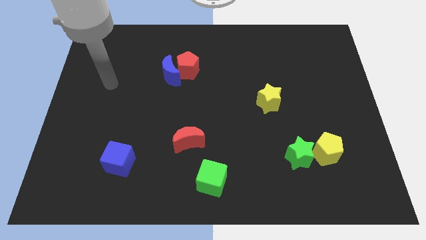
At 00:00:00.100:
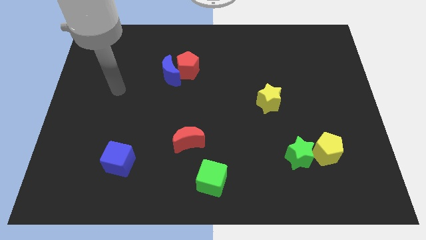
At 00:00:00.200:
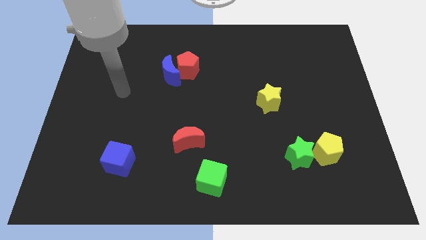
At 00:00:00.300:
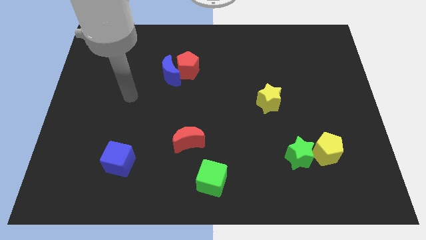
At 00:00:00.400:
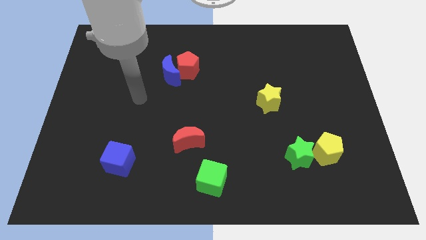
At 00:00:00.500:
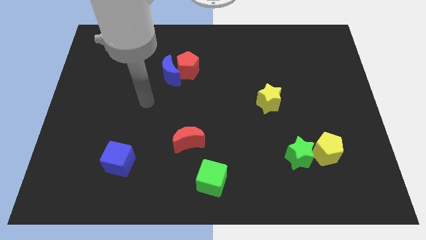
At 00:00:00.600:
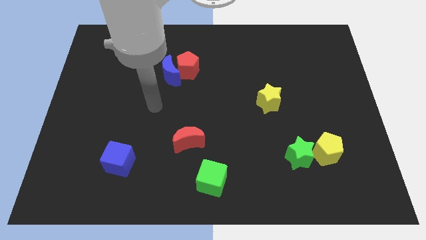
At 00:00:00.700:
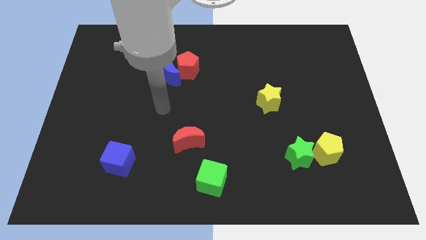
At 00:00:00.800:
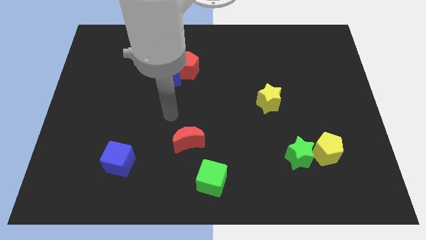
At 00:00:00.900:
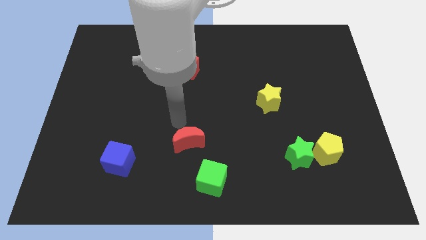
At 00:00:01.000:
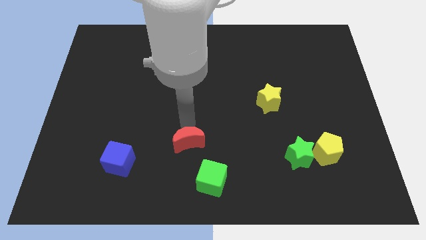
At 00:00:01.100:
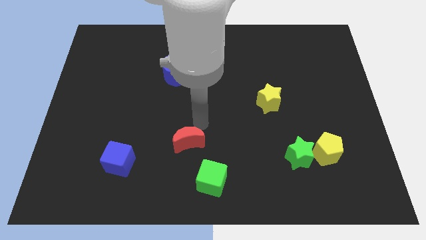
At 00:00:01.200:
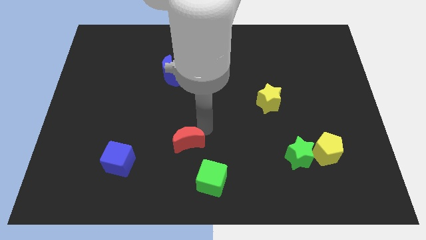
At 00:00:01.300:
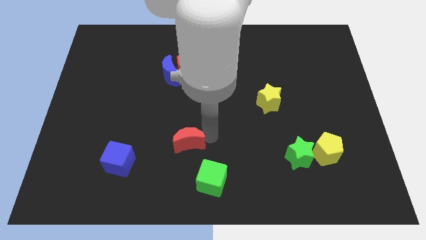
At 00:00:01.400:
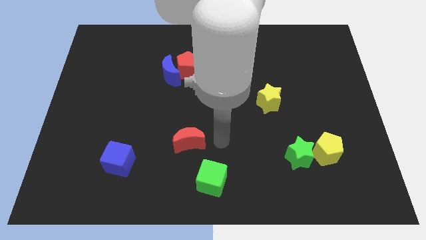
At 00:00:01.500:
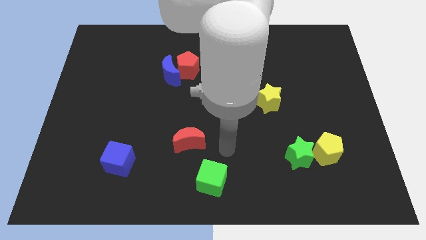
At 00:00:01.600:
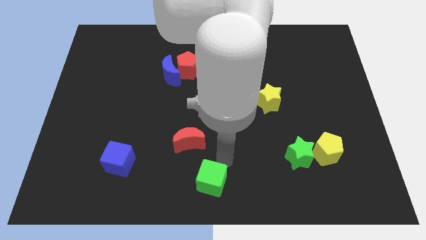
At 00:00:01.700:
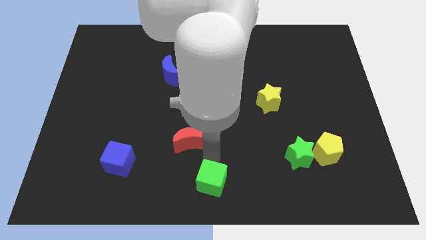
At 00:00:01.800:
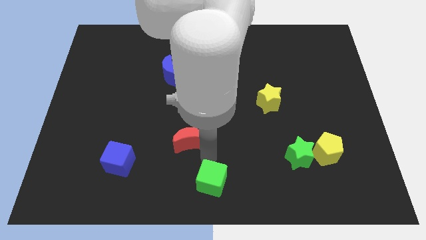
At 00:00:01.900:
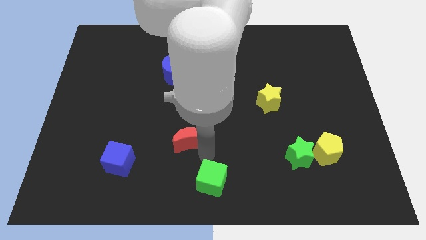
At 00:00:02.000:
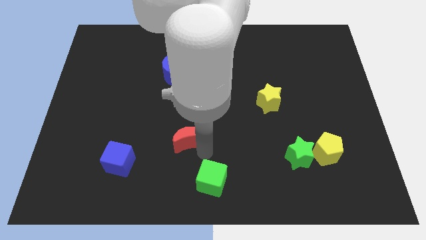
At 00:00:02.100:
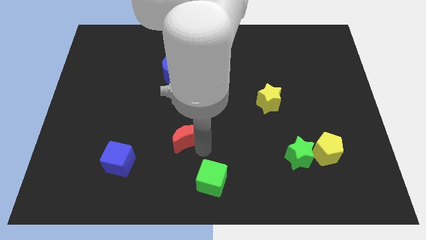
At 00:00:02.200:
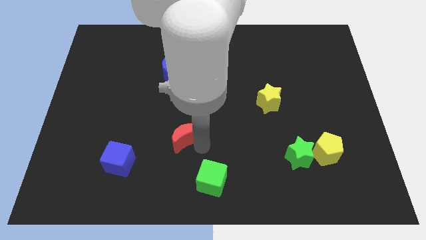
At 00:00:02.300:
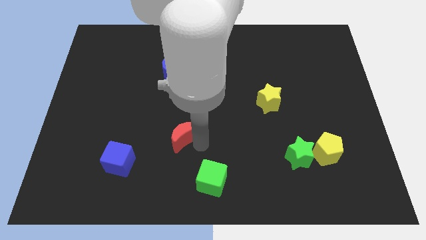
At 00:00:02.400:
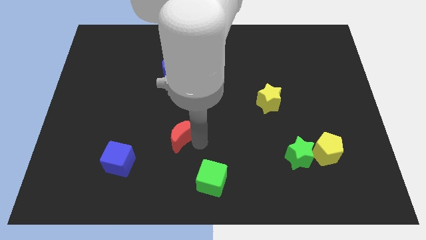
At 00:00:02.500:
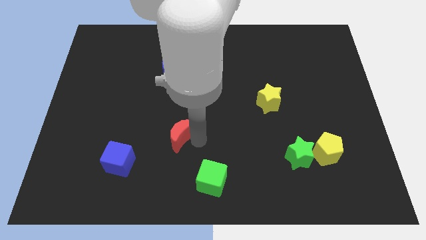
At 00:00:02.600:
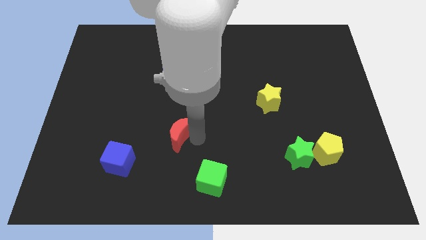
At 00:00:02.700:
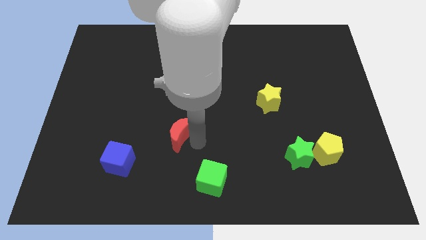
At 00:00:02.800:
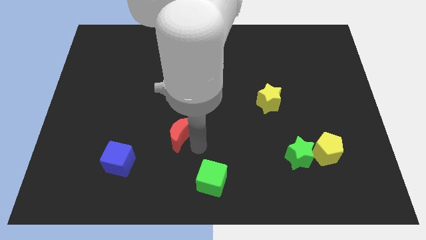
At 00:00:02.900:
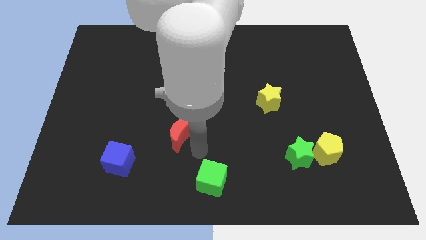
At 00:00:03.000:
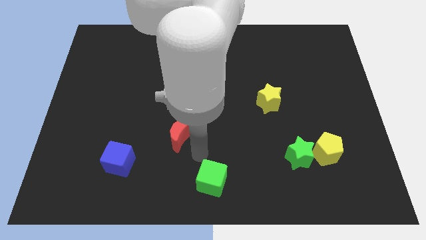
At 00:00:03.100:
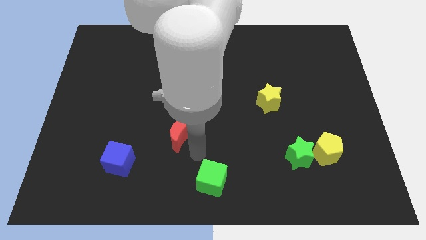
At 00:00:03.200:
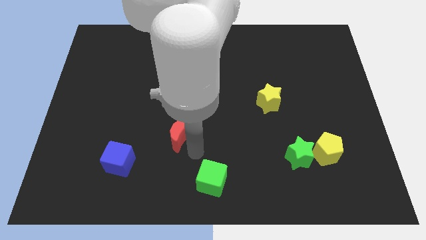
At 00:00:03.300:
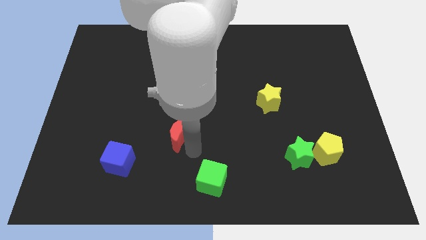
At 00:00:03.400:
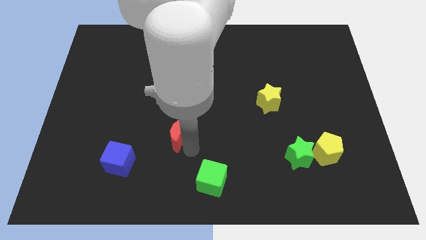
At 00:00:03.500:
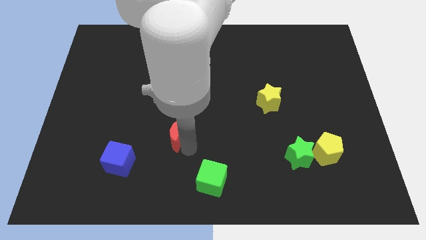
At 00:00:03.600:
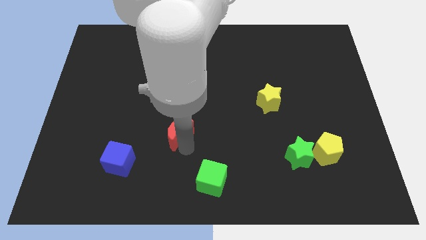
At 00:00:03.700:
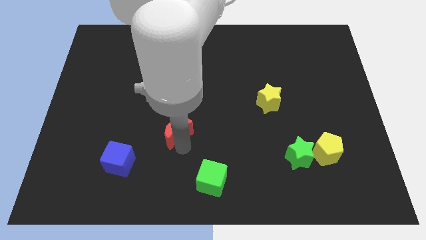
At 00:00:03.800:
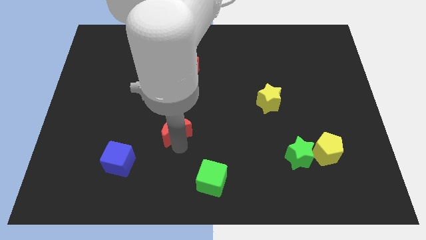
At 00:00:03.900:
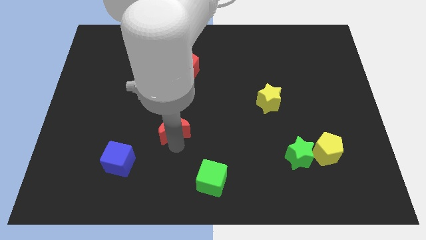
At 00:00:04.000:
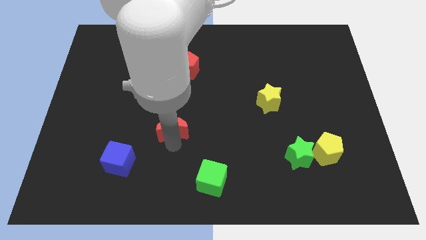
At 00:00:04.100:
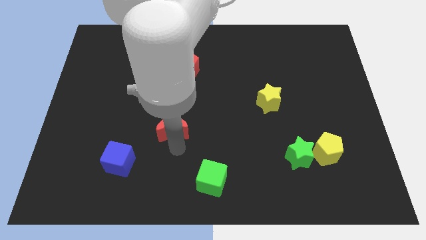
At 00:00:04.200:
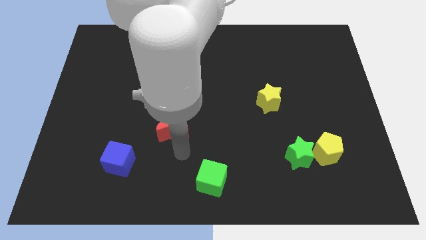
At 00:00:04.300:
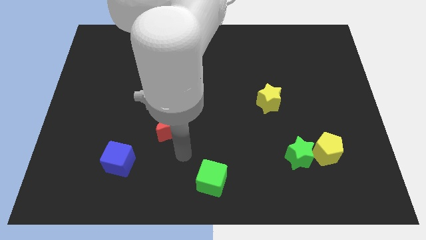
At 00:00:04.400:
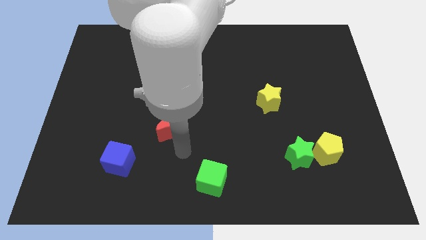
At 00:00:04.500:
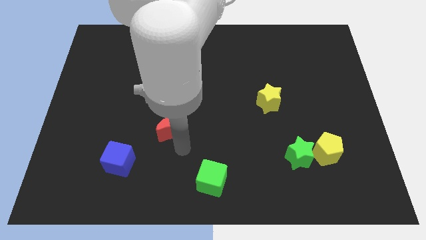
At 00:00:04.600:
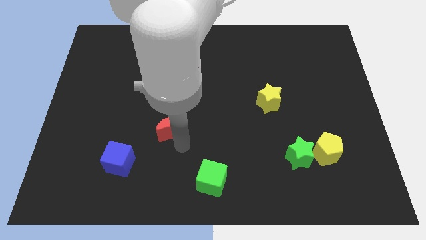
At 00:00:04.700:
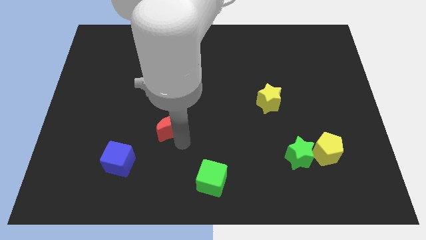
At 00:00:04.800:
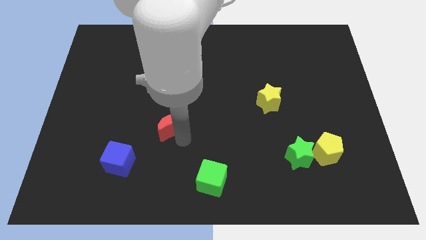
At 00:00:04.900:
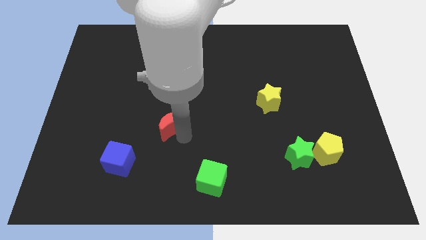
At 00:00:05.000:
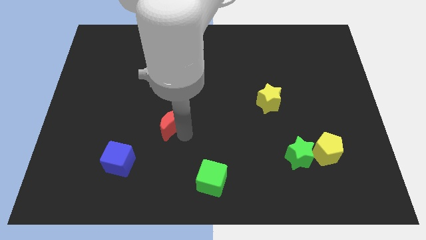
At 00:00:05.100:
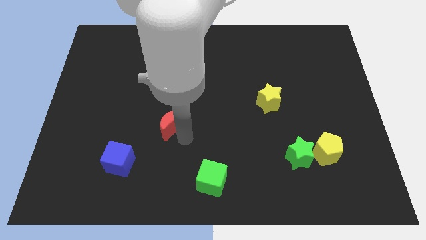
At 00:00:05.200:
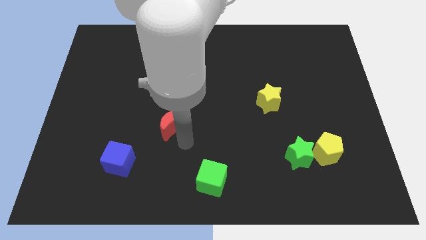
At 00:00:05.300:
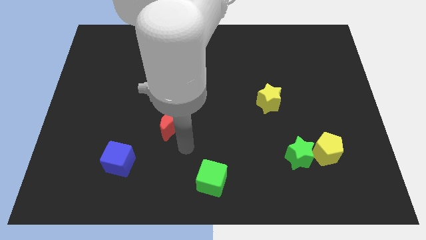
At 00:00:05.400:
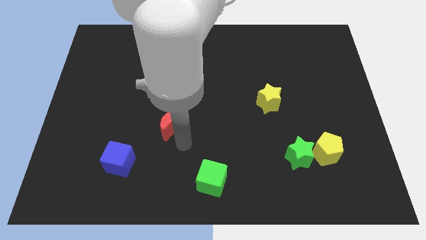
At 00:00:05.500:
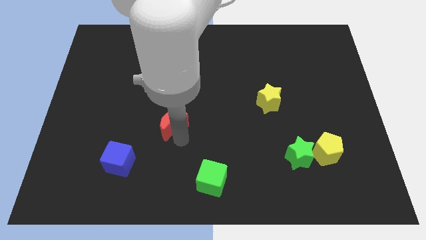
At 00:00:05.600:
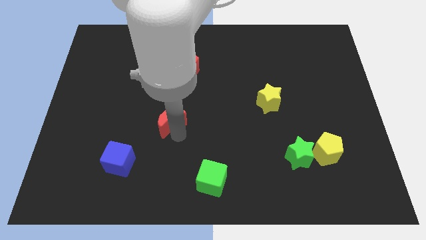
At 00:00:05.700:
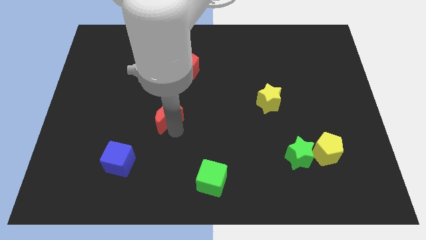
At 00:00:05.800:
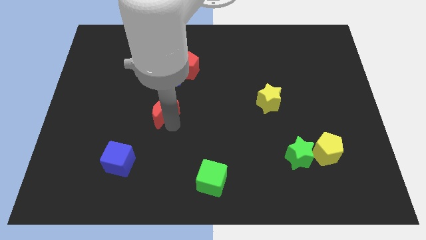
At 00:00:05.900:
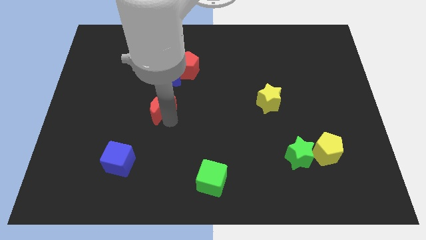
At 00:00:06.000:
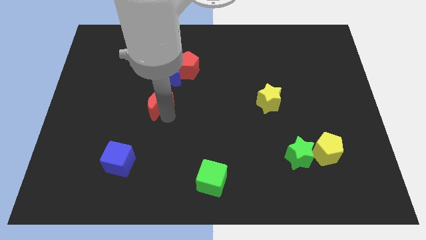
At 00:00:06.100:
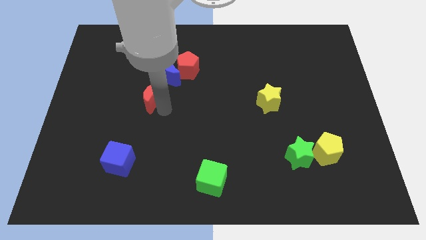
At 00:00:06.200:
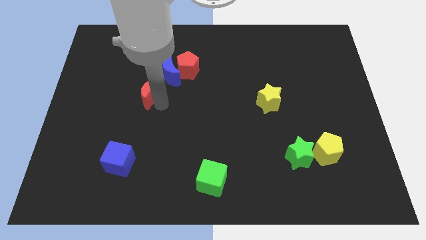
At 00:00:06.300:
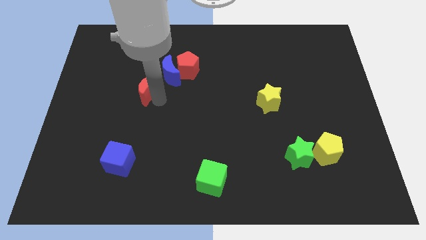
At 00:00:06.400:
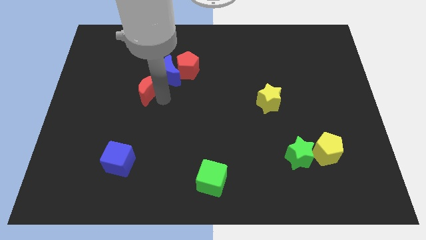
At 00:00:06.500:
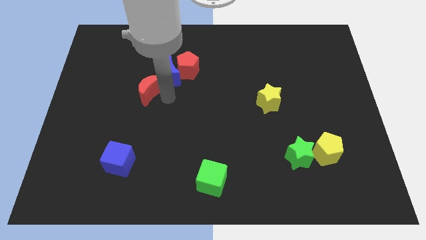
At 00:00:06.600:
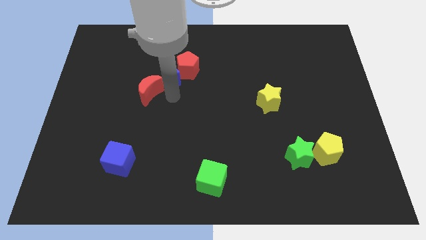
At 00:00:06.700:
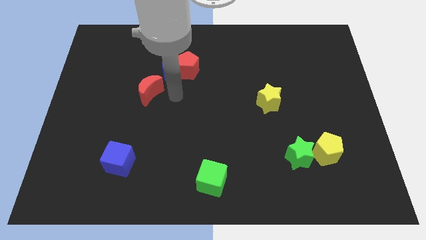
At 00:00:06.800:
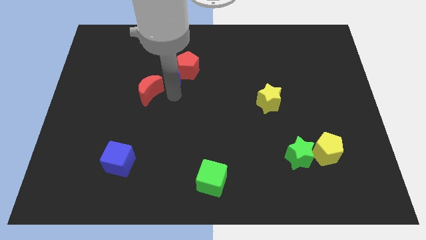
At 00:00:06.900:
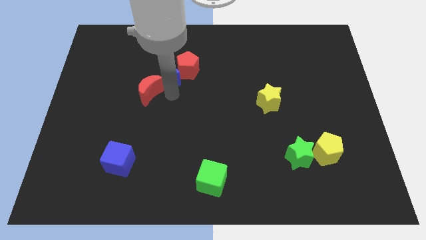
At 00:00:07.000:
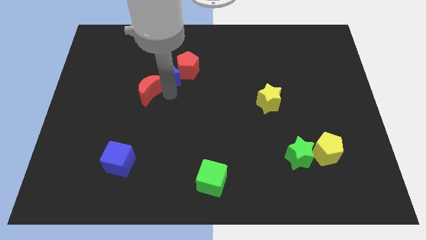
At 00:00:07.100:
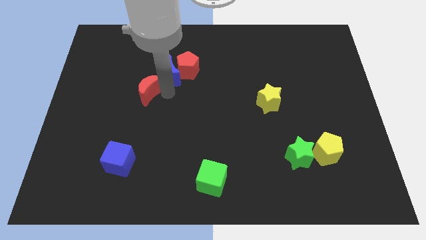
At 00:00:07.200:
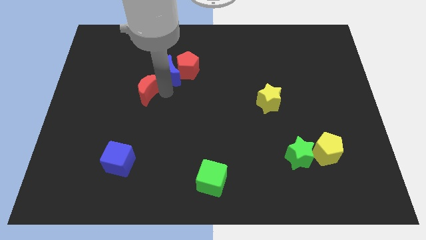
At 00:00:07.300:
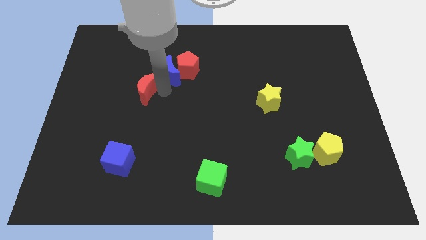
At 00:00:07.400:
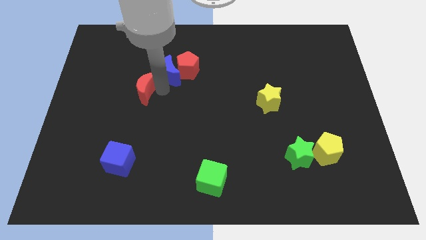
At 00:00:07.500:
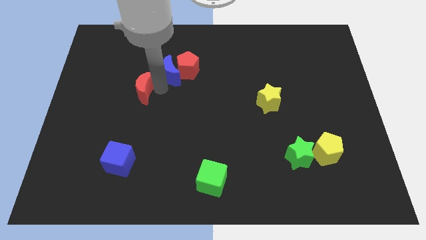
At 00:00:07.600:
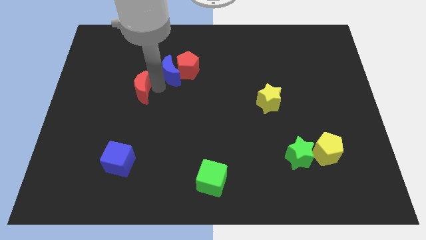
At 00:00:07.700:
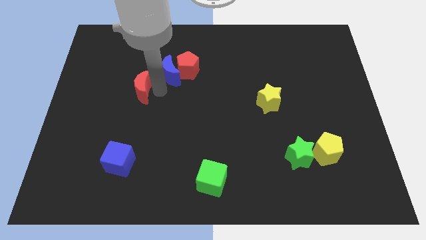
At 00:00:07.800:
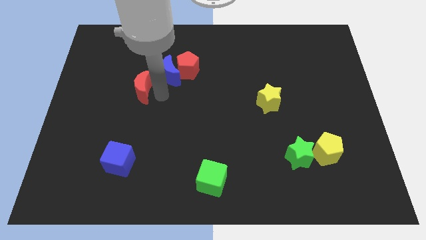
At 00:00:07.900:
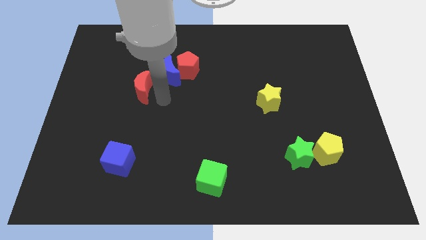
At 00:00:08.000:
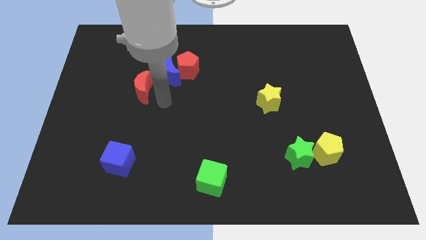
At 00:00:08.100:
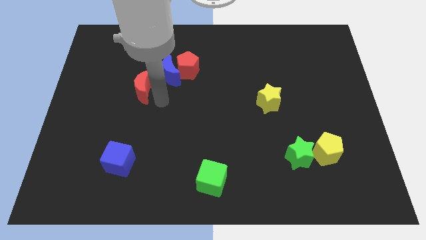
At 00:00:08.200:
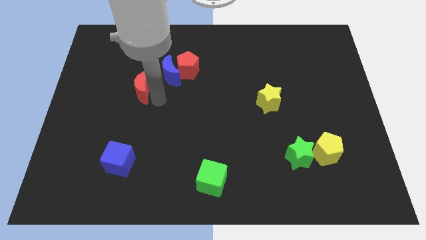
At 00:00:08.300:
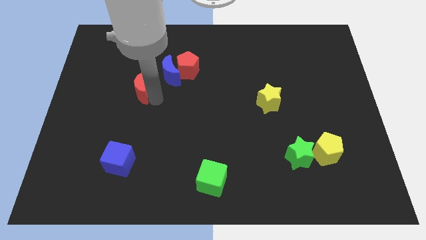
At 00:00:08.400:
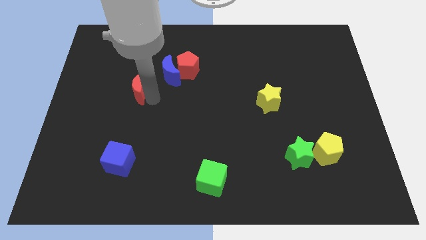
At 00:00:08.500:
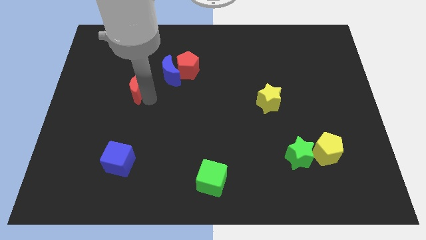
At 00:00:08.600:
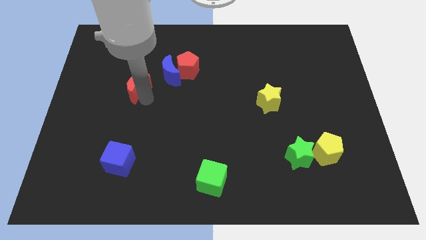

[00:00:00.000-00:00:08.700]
push the red moon diagonally up and to the left
